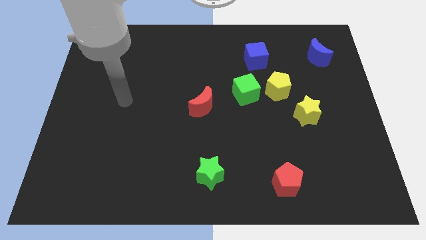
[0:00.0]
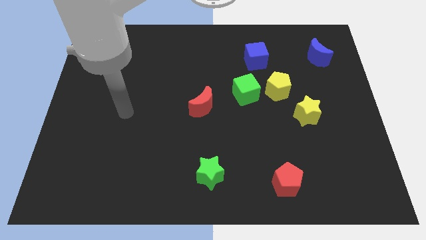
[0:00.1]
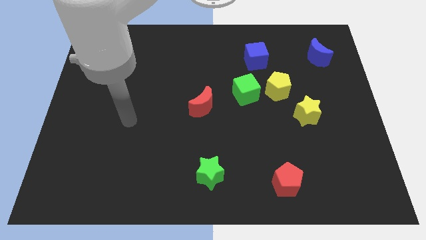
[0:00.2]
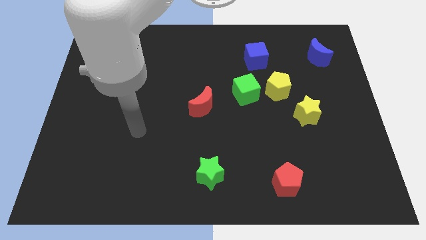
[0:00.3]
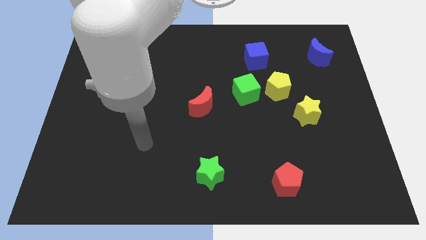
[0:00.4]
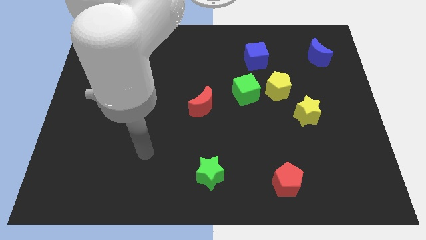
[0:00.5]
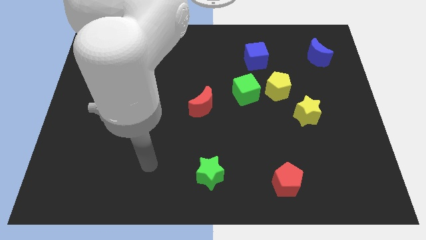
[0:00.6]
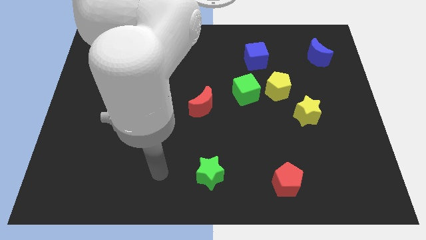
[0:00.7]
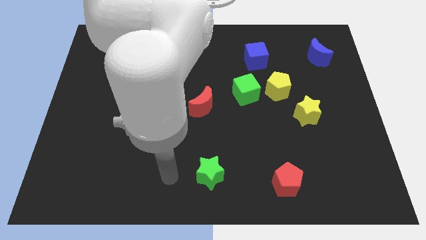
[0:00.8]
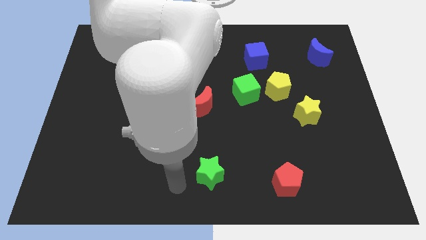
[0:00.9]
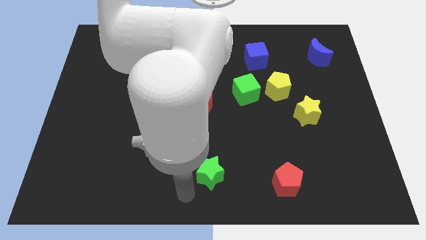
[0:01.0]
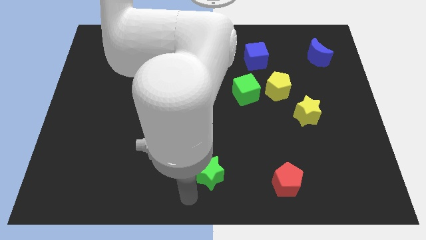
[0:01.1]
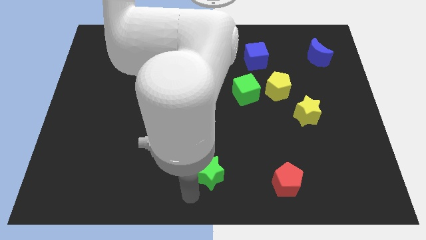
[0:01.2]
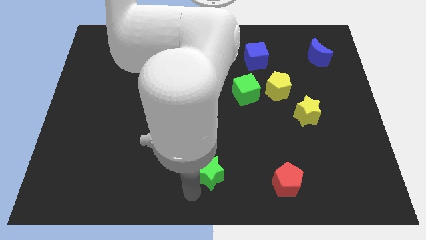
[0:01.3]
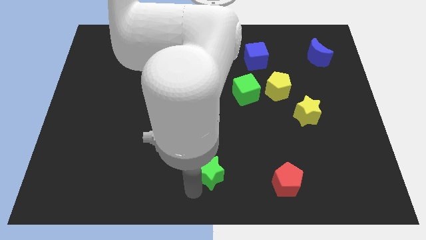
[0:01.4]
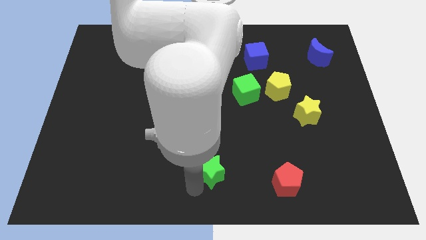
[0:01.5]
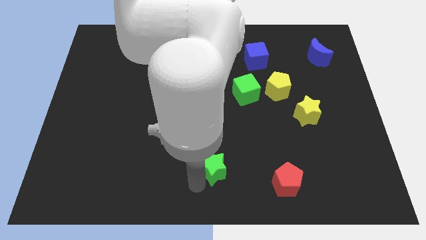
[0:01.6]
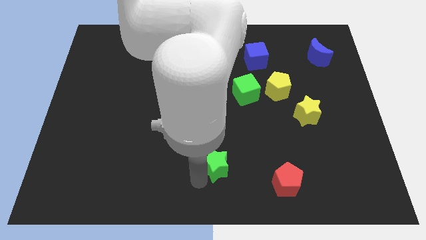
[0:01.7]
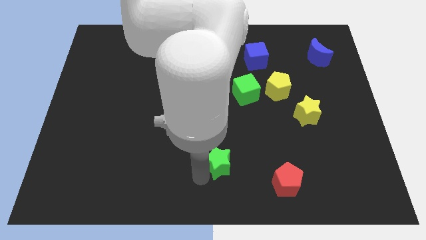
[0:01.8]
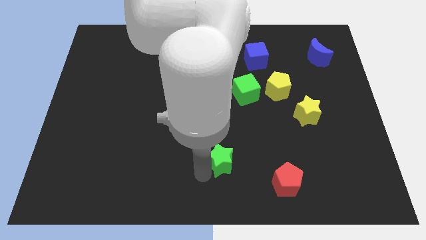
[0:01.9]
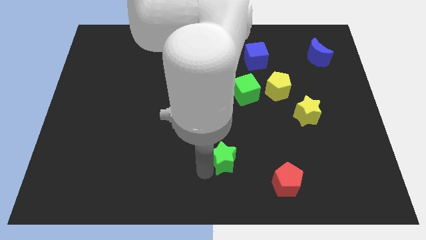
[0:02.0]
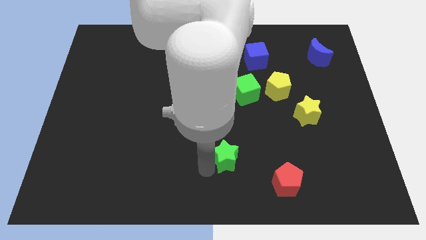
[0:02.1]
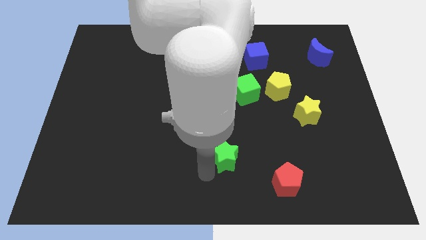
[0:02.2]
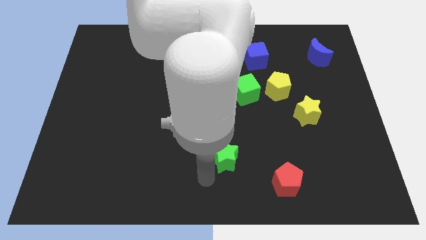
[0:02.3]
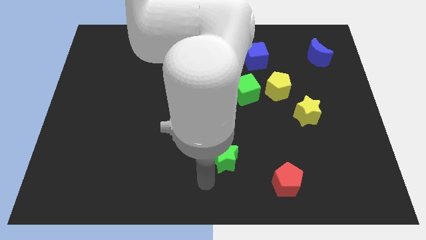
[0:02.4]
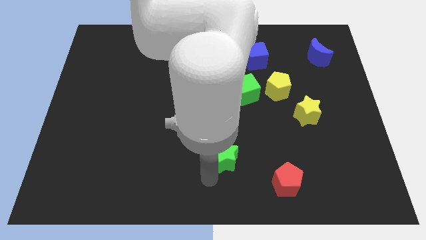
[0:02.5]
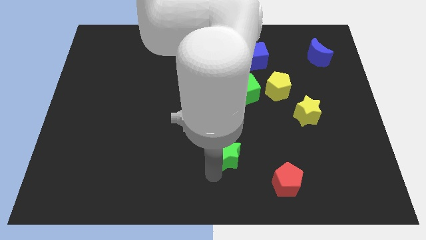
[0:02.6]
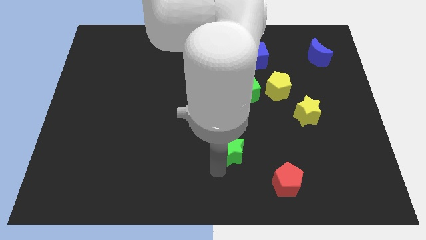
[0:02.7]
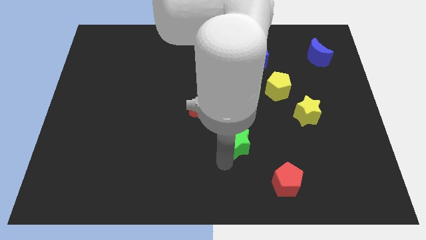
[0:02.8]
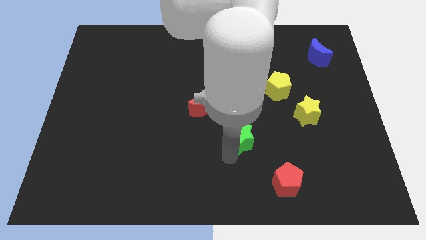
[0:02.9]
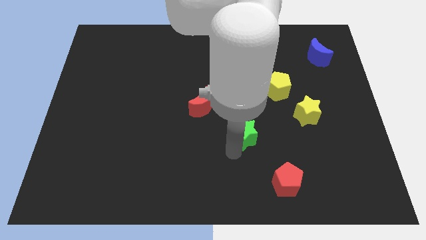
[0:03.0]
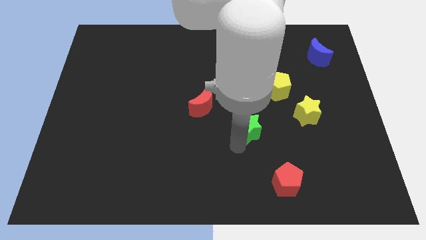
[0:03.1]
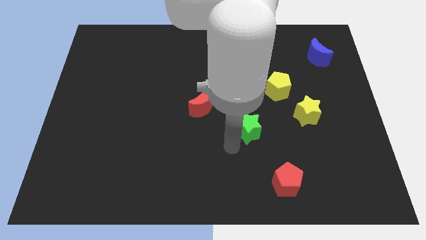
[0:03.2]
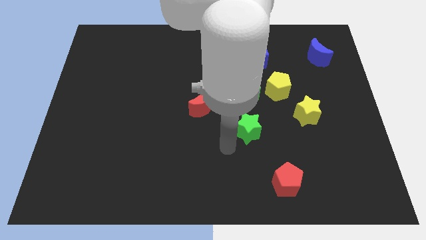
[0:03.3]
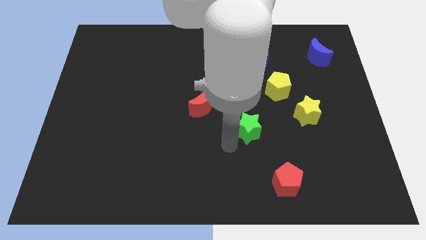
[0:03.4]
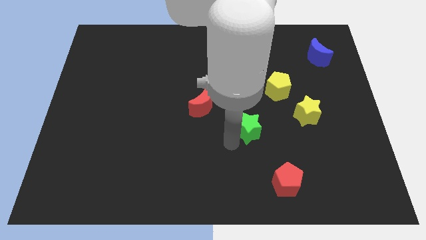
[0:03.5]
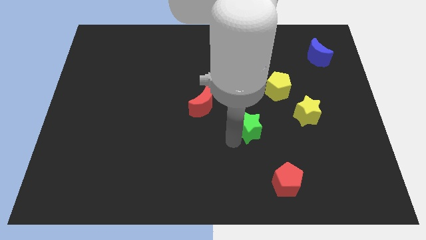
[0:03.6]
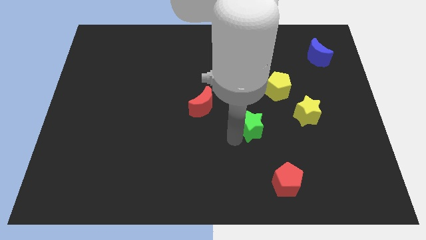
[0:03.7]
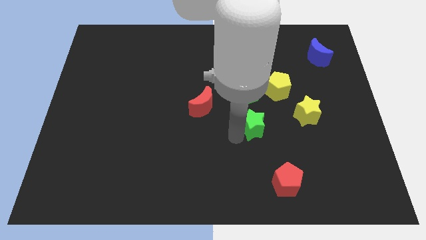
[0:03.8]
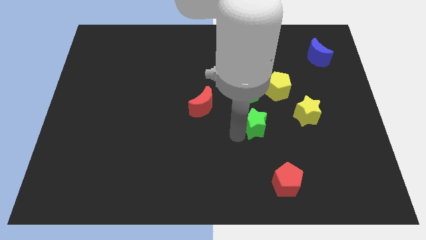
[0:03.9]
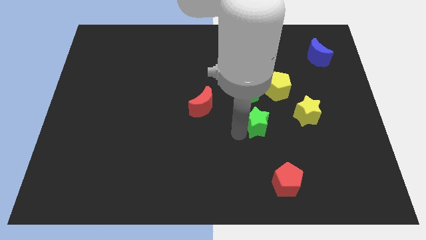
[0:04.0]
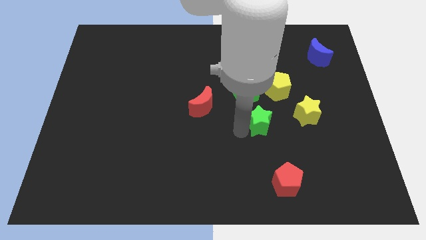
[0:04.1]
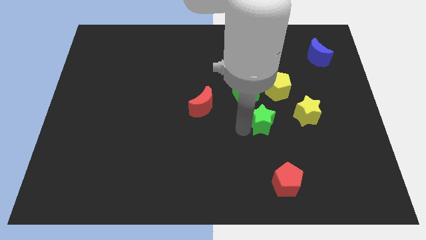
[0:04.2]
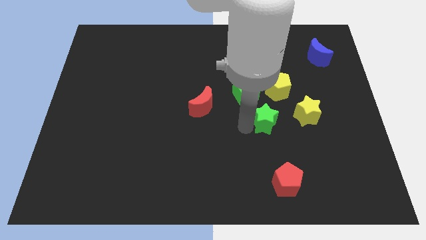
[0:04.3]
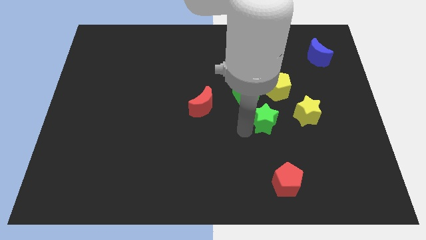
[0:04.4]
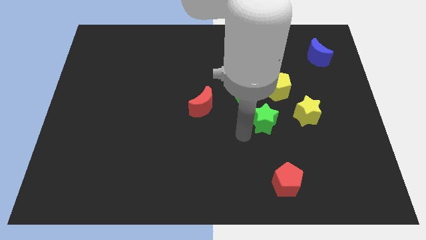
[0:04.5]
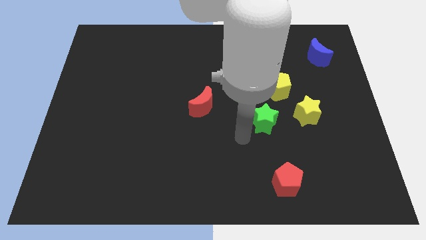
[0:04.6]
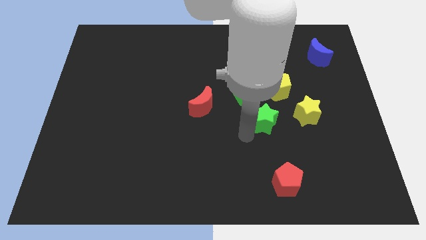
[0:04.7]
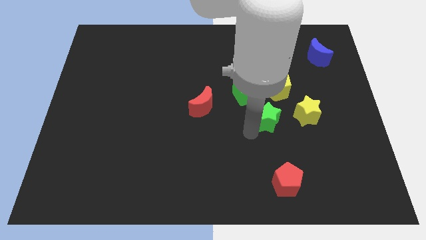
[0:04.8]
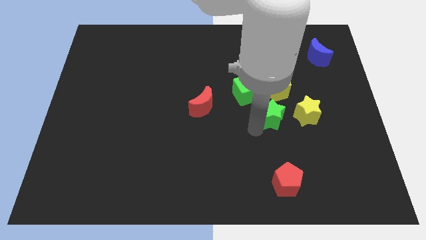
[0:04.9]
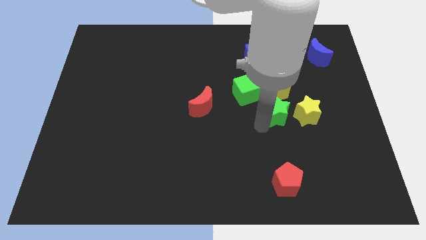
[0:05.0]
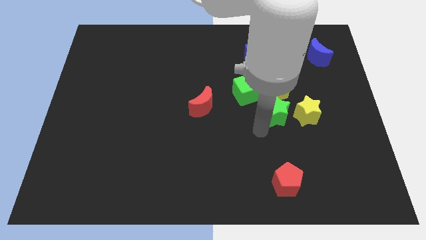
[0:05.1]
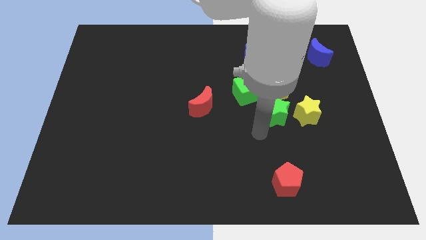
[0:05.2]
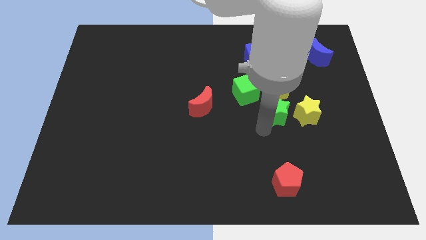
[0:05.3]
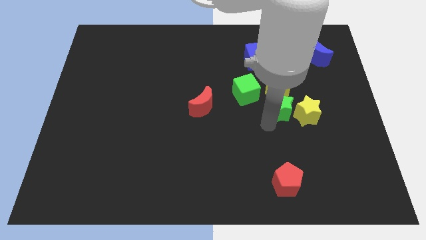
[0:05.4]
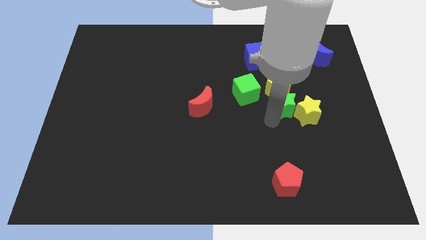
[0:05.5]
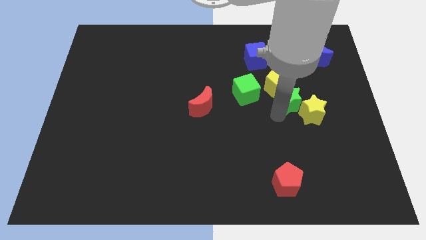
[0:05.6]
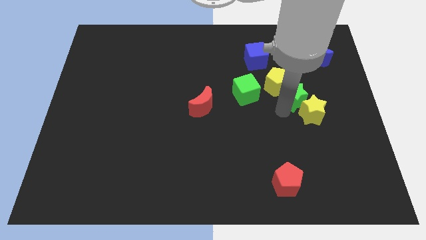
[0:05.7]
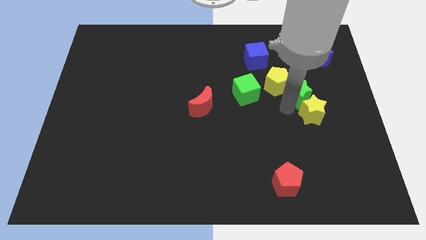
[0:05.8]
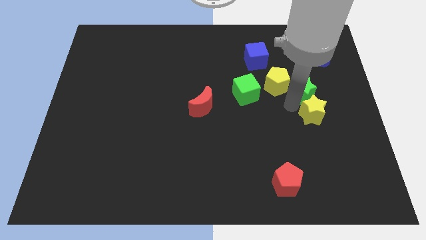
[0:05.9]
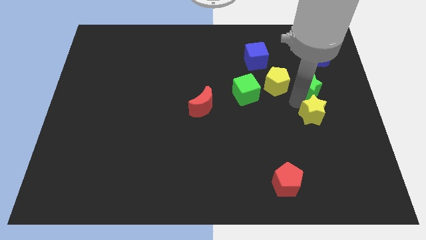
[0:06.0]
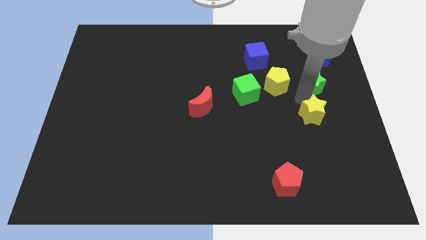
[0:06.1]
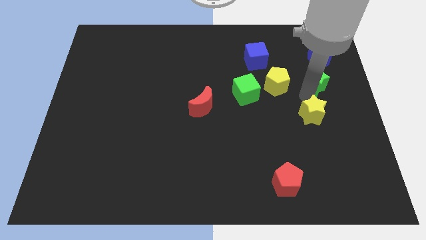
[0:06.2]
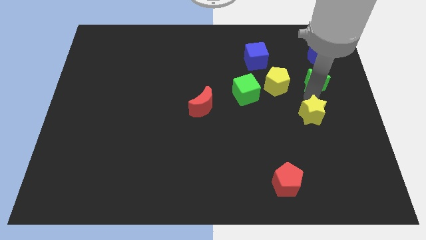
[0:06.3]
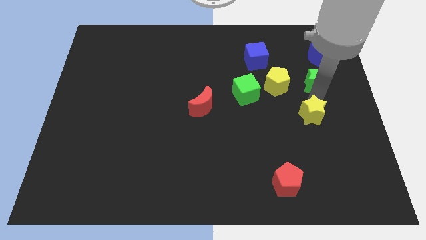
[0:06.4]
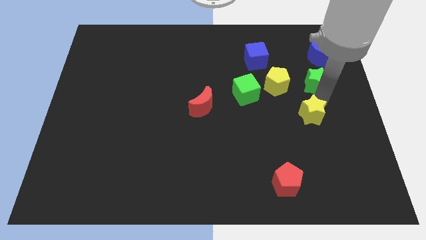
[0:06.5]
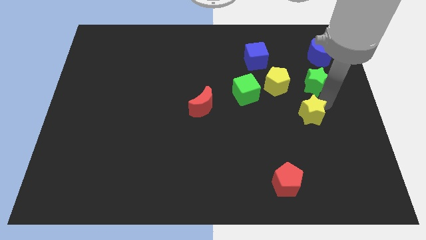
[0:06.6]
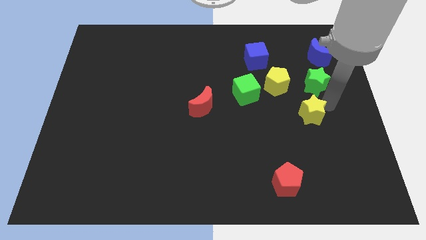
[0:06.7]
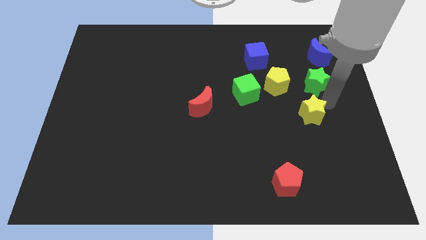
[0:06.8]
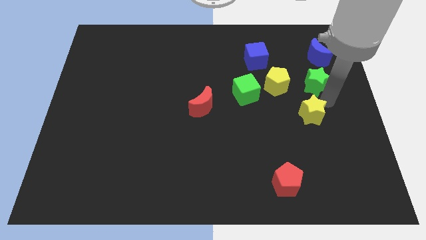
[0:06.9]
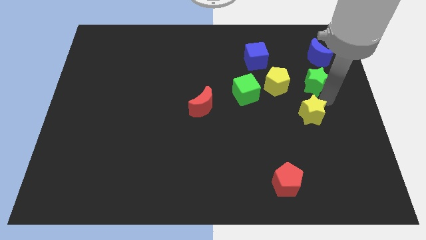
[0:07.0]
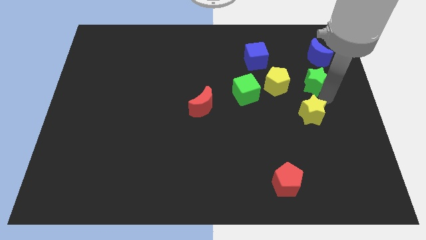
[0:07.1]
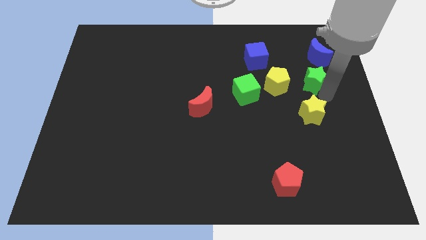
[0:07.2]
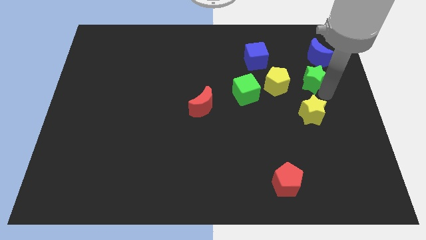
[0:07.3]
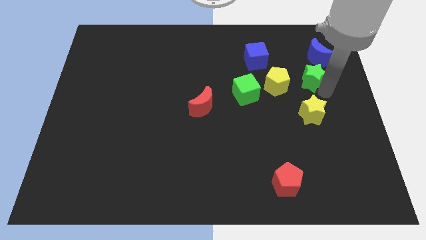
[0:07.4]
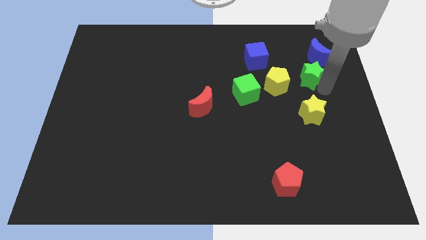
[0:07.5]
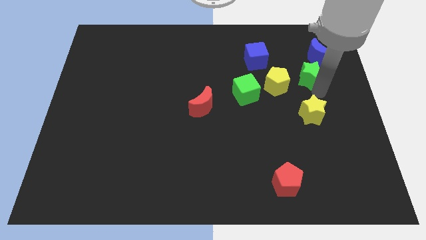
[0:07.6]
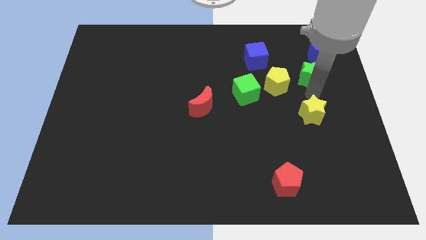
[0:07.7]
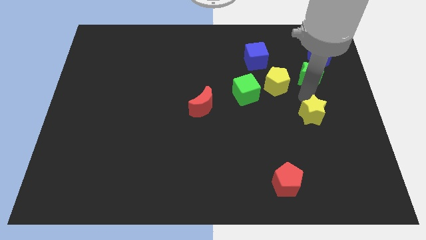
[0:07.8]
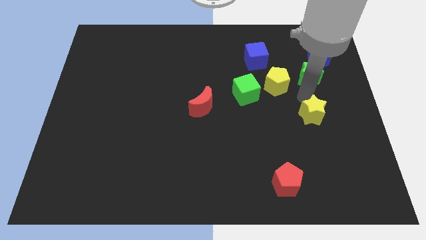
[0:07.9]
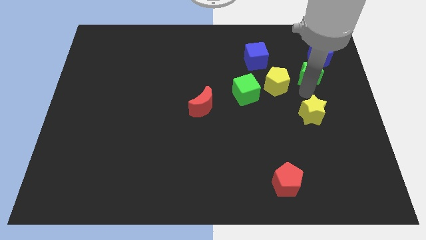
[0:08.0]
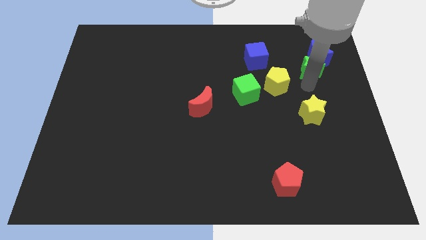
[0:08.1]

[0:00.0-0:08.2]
slide the green star next to the blue moon
